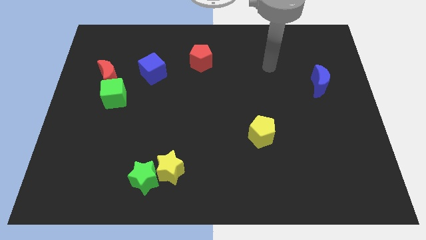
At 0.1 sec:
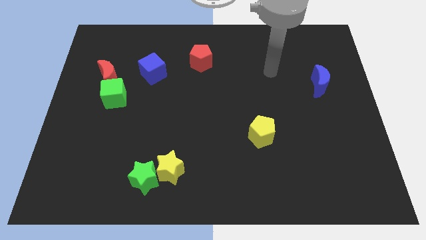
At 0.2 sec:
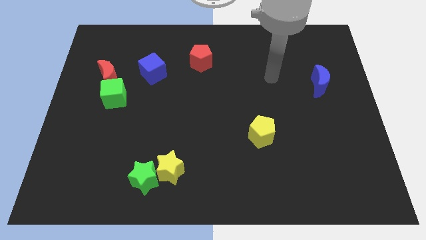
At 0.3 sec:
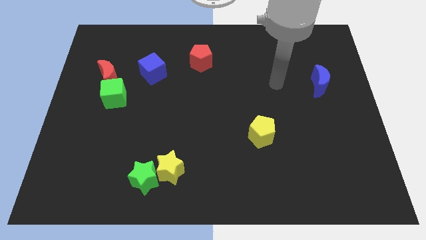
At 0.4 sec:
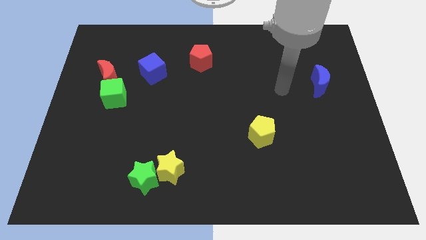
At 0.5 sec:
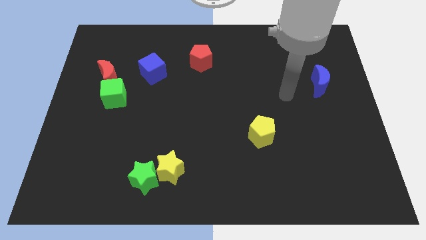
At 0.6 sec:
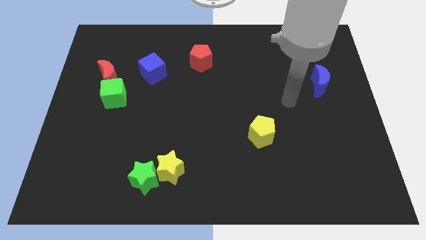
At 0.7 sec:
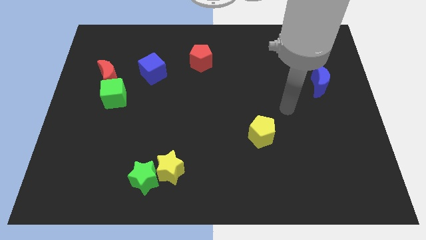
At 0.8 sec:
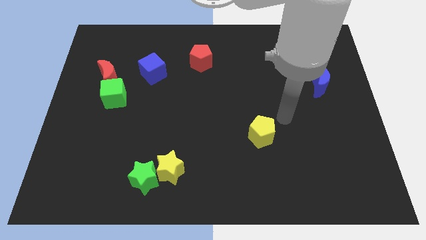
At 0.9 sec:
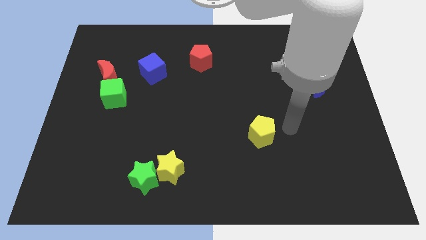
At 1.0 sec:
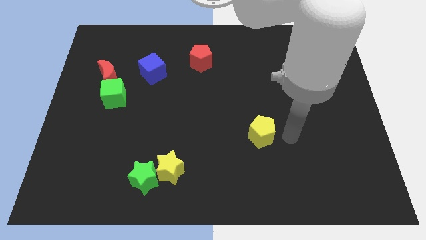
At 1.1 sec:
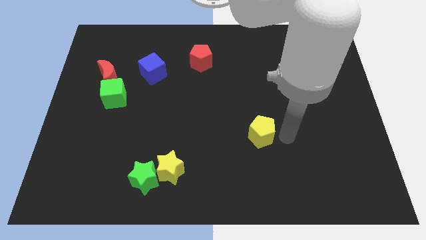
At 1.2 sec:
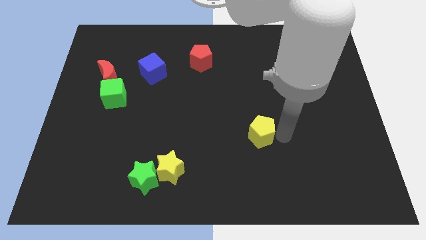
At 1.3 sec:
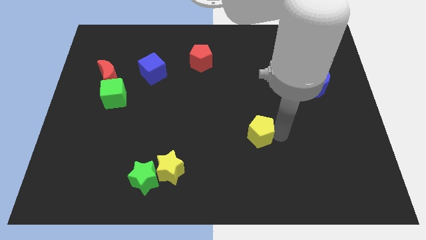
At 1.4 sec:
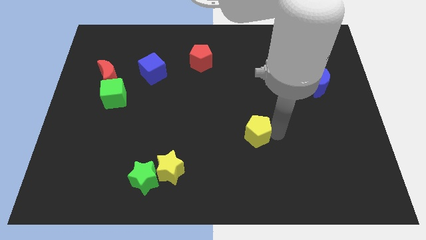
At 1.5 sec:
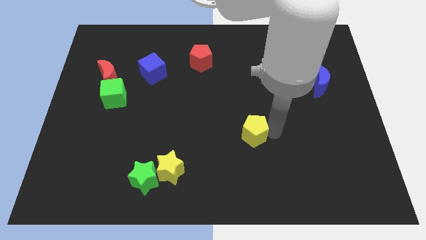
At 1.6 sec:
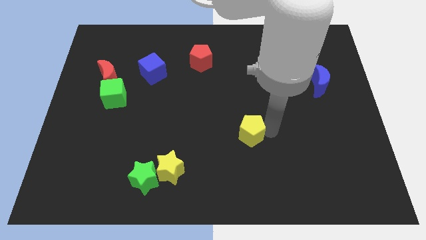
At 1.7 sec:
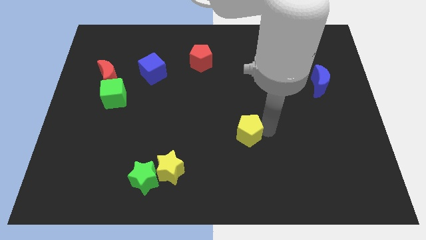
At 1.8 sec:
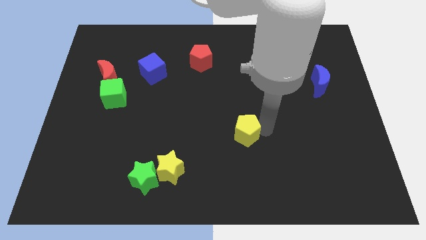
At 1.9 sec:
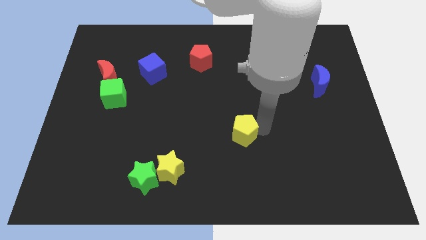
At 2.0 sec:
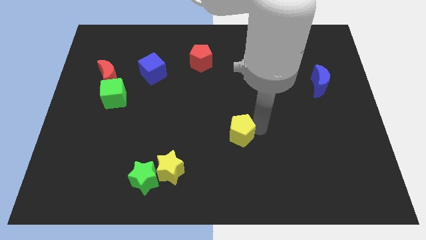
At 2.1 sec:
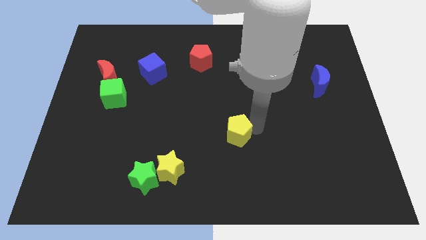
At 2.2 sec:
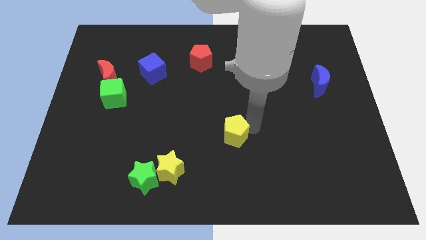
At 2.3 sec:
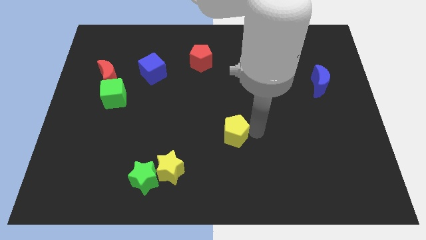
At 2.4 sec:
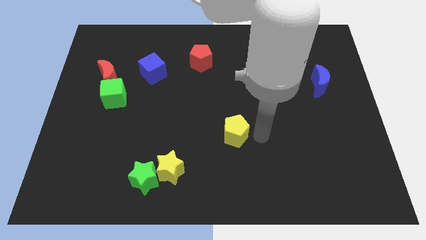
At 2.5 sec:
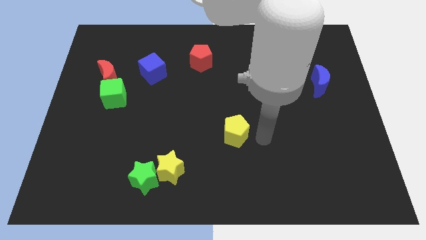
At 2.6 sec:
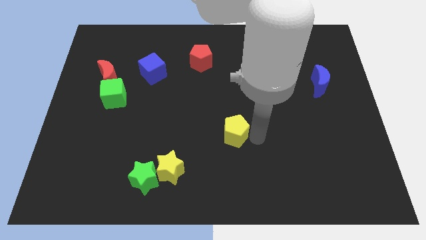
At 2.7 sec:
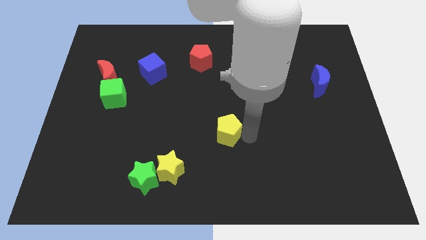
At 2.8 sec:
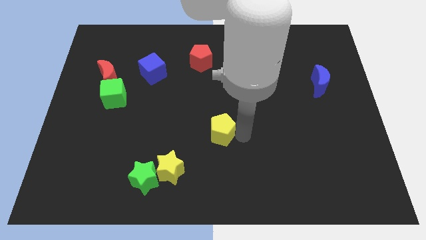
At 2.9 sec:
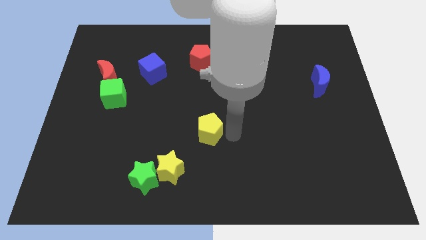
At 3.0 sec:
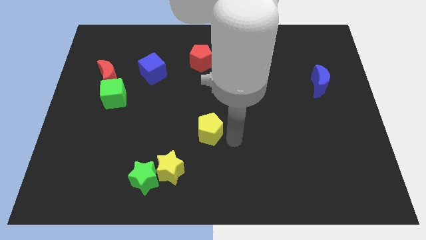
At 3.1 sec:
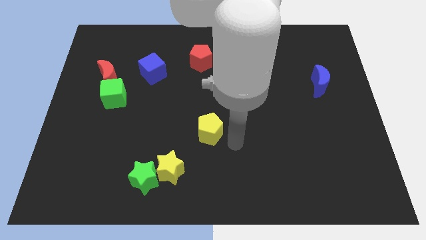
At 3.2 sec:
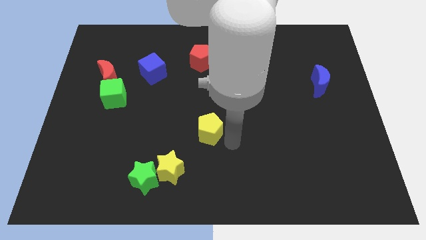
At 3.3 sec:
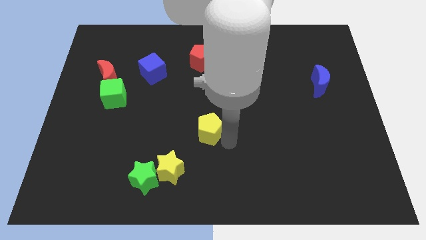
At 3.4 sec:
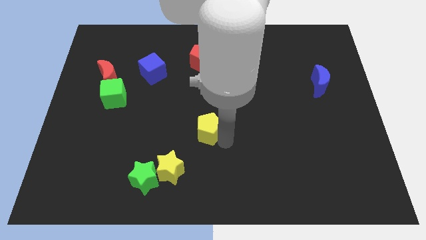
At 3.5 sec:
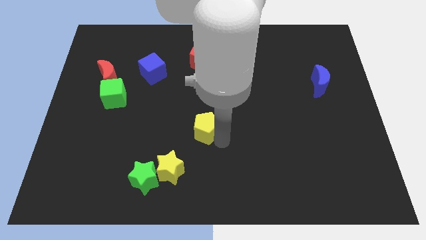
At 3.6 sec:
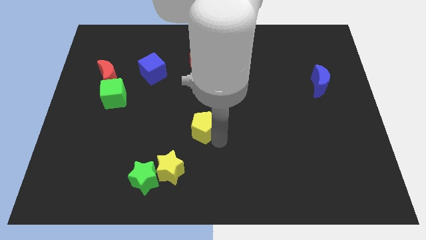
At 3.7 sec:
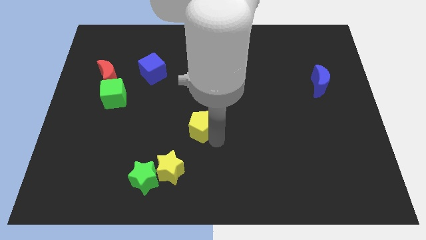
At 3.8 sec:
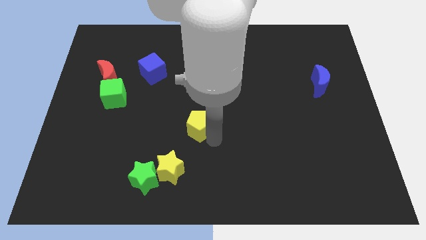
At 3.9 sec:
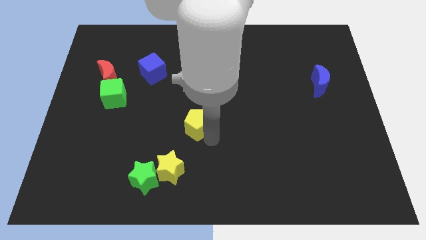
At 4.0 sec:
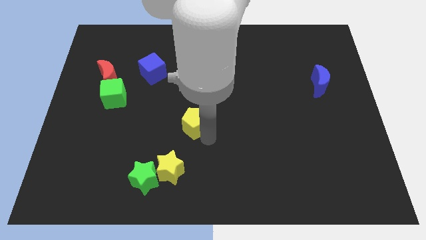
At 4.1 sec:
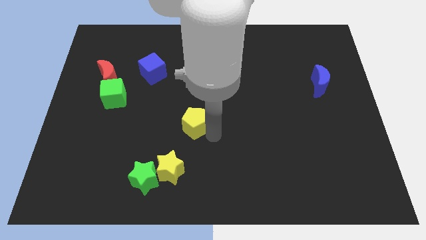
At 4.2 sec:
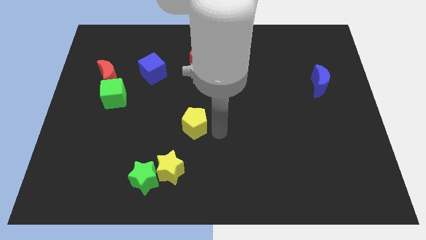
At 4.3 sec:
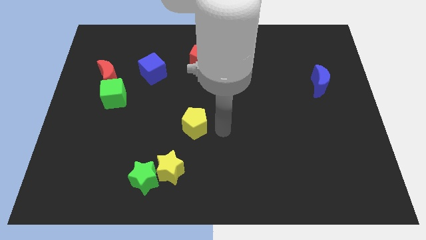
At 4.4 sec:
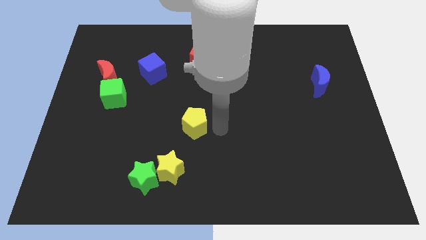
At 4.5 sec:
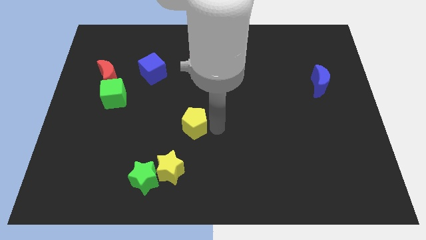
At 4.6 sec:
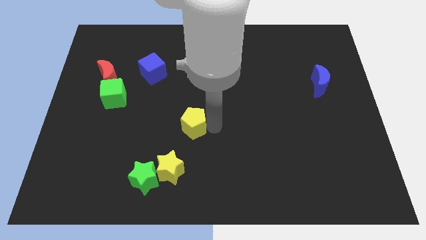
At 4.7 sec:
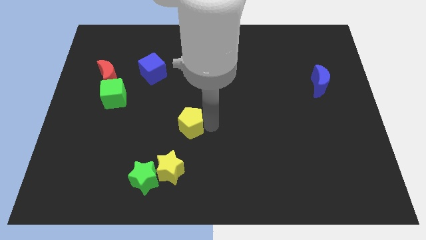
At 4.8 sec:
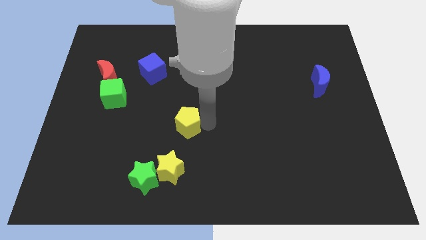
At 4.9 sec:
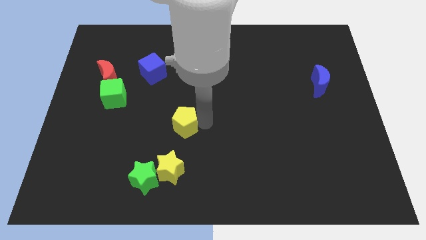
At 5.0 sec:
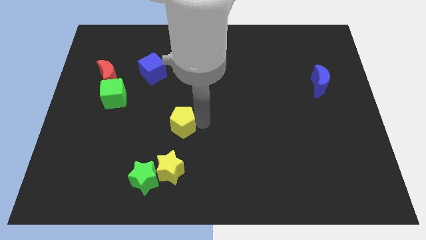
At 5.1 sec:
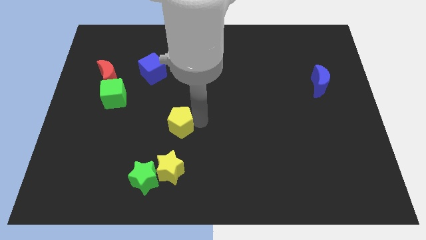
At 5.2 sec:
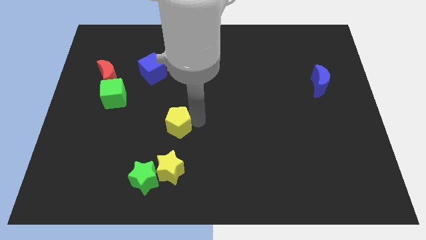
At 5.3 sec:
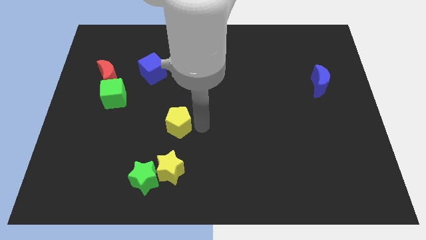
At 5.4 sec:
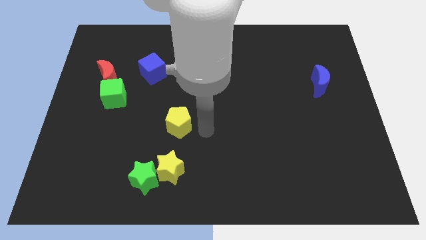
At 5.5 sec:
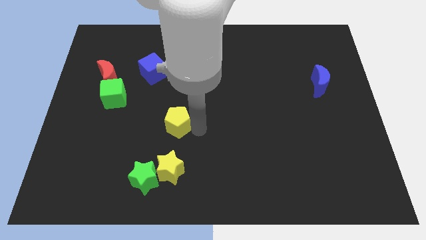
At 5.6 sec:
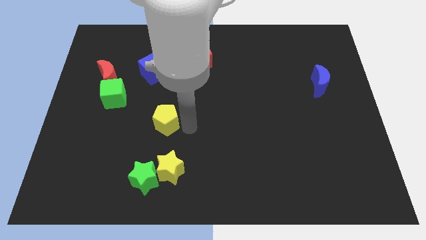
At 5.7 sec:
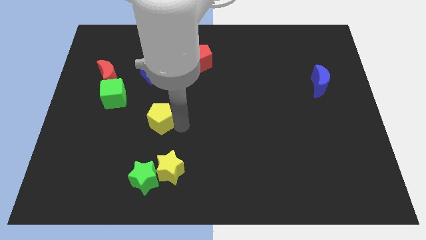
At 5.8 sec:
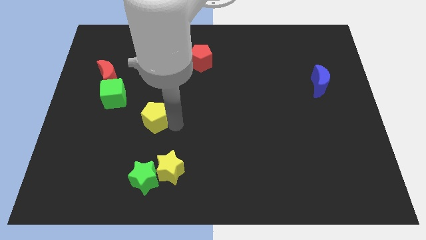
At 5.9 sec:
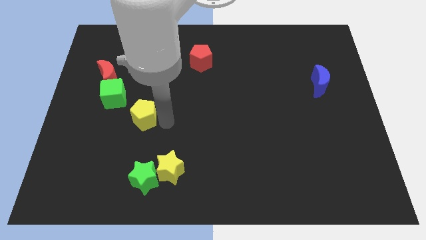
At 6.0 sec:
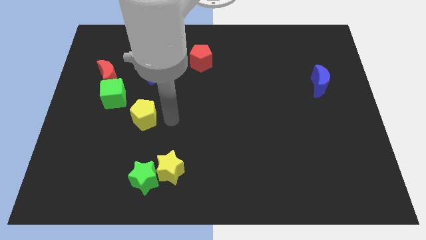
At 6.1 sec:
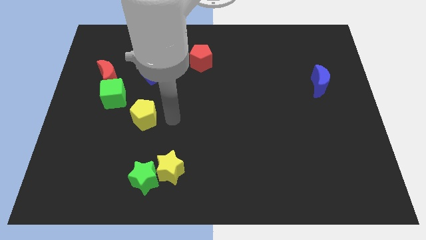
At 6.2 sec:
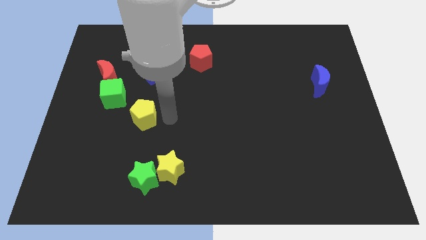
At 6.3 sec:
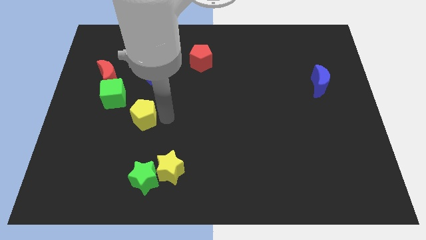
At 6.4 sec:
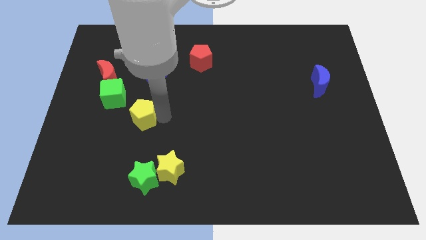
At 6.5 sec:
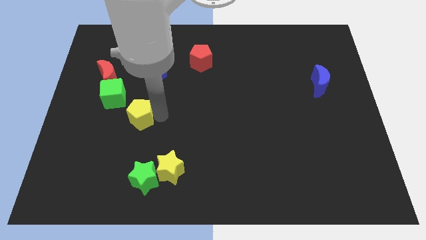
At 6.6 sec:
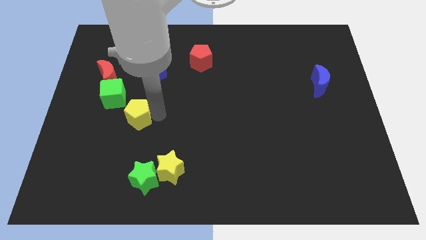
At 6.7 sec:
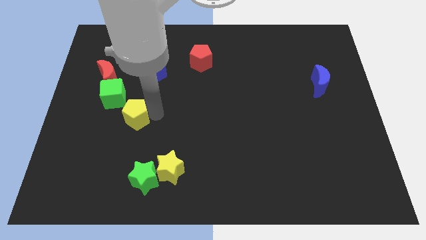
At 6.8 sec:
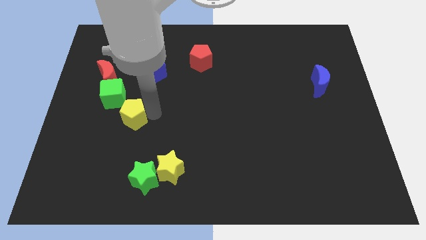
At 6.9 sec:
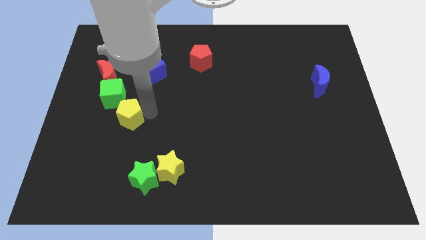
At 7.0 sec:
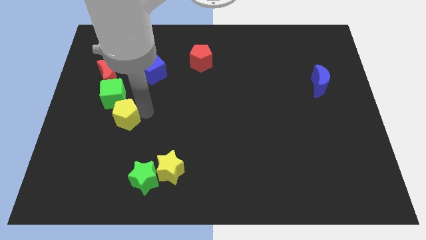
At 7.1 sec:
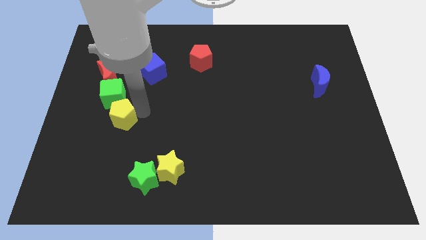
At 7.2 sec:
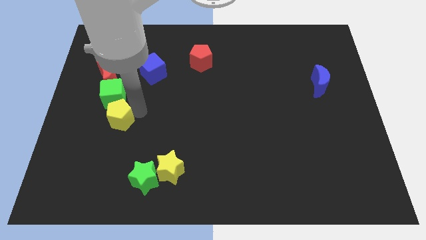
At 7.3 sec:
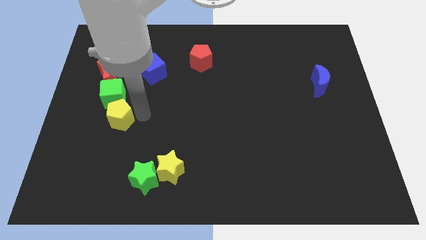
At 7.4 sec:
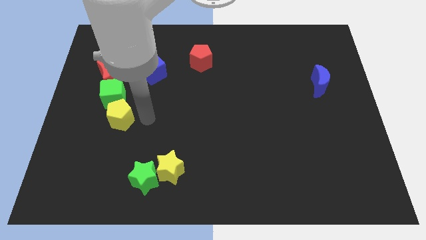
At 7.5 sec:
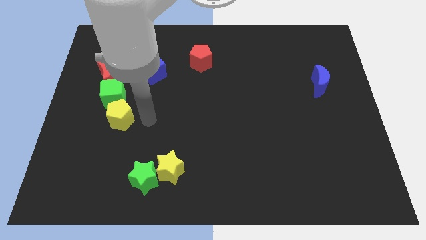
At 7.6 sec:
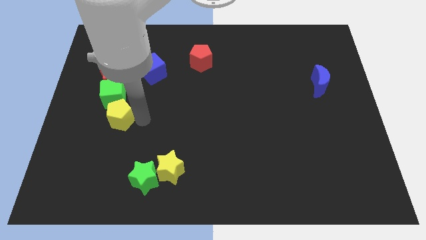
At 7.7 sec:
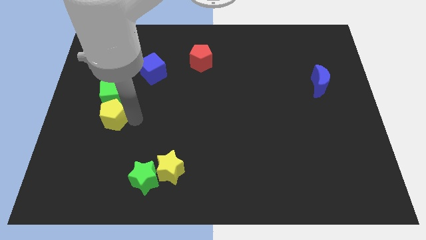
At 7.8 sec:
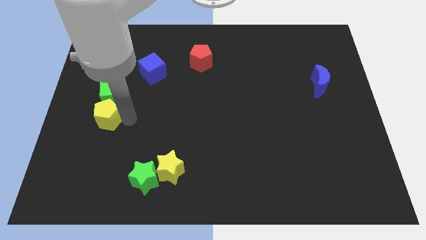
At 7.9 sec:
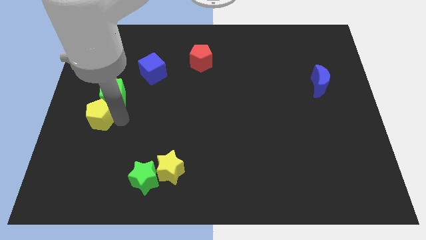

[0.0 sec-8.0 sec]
move the yellow pentagon to the left side of the board
